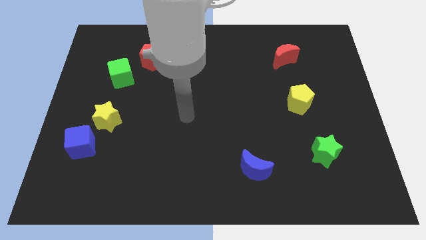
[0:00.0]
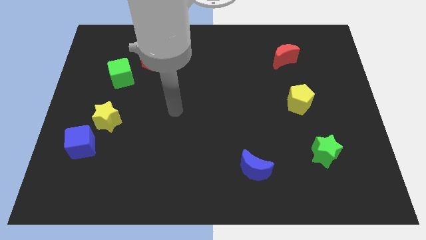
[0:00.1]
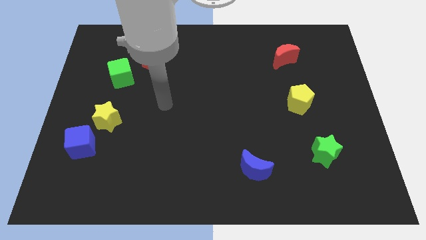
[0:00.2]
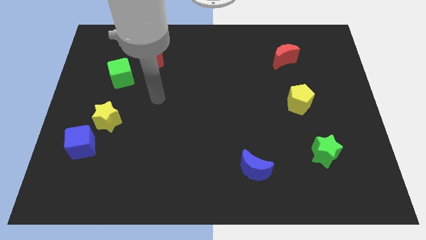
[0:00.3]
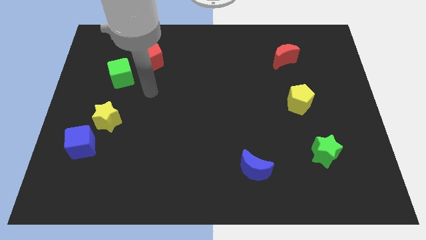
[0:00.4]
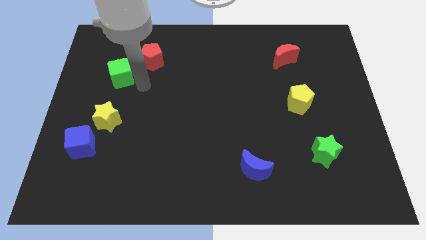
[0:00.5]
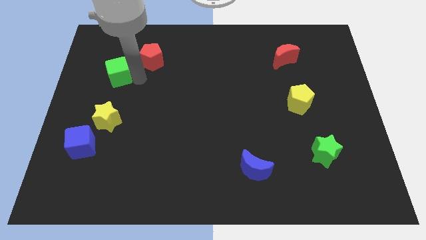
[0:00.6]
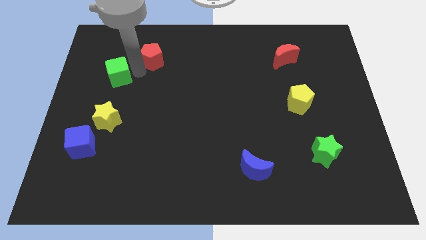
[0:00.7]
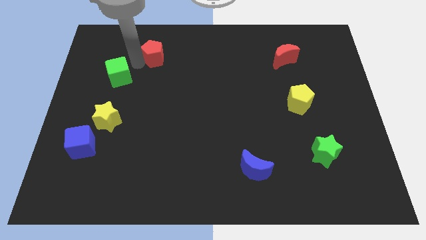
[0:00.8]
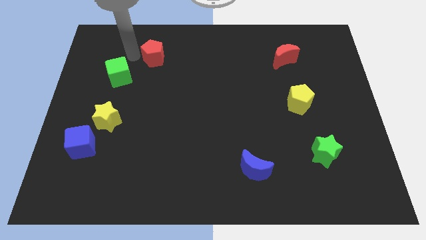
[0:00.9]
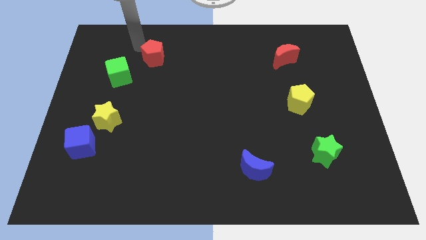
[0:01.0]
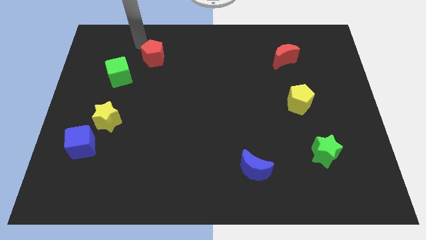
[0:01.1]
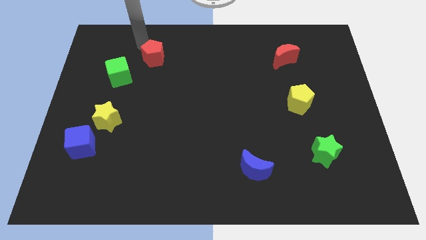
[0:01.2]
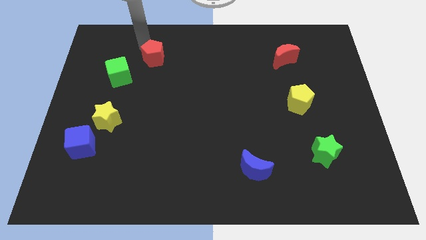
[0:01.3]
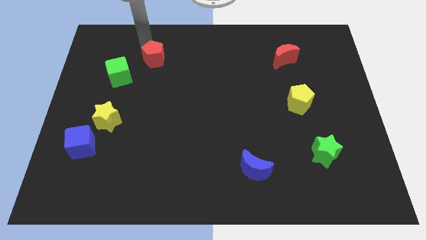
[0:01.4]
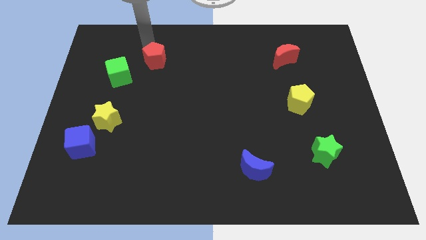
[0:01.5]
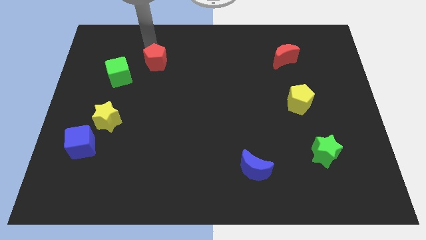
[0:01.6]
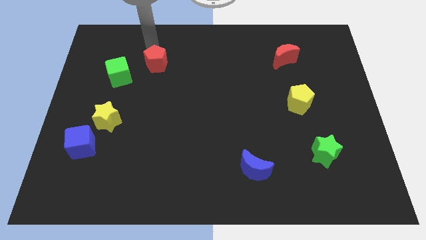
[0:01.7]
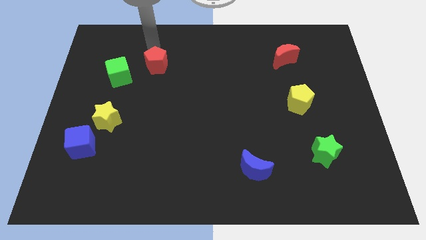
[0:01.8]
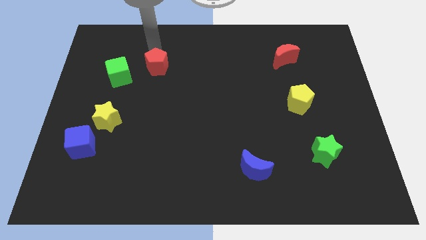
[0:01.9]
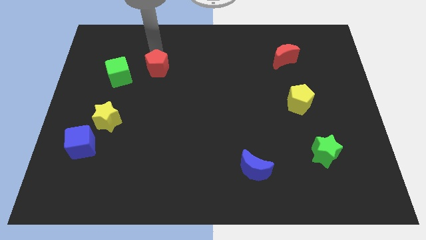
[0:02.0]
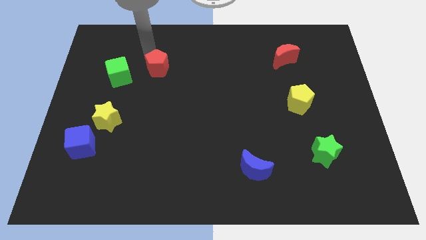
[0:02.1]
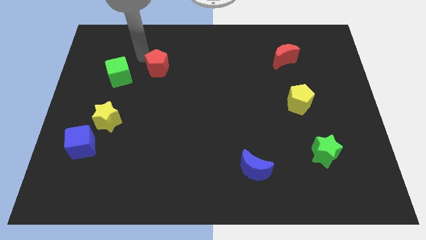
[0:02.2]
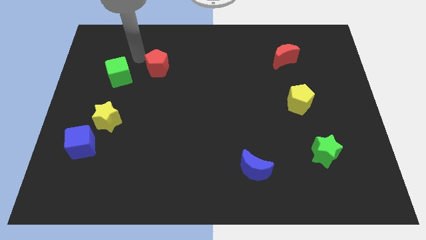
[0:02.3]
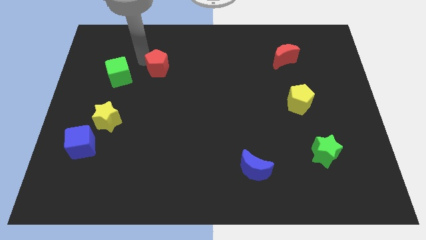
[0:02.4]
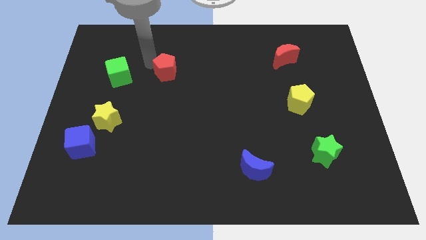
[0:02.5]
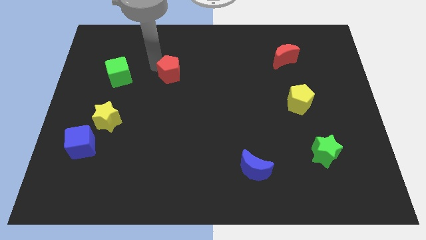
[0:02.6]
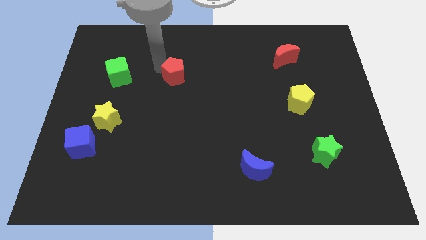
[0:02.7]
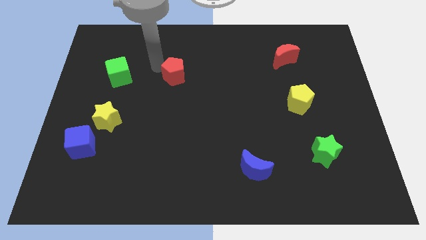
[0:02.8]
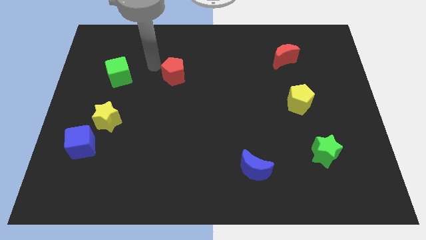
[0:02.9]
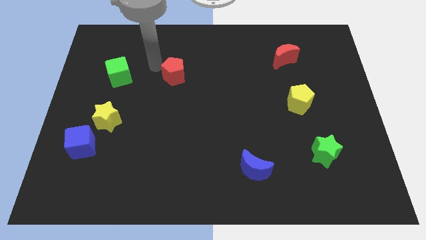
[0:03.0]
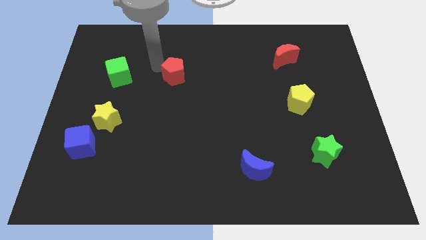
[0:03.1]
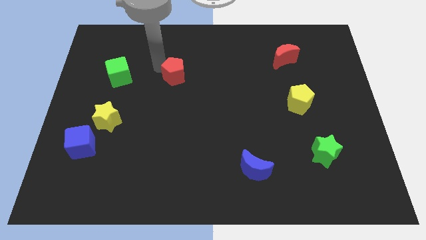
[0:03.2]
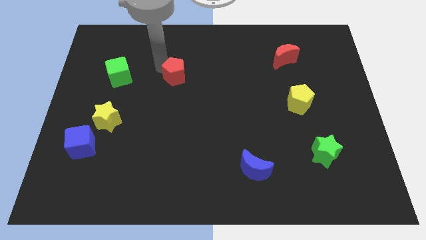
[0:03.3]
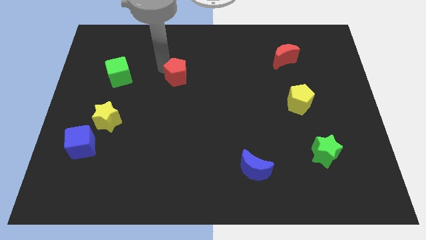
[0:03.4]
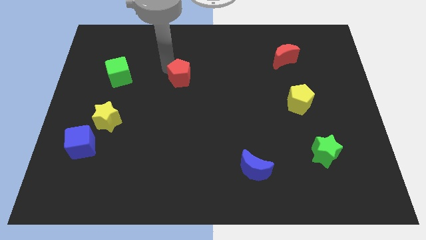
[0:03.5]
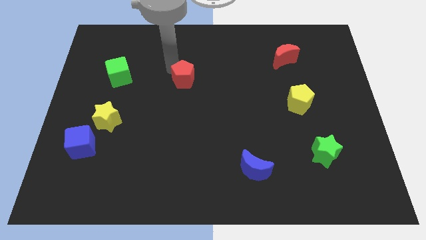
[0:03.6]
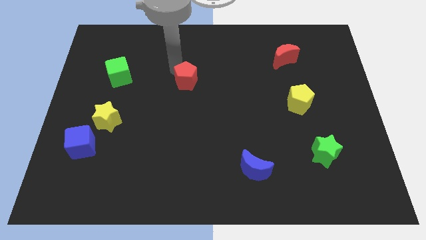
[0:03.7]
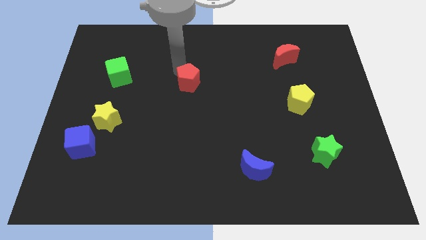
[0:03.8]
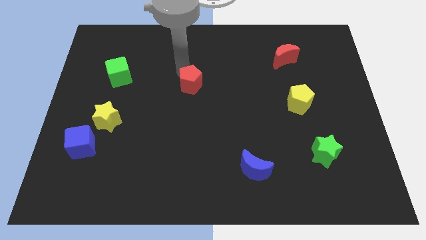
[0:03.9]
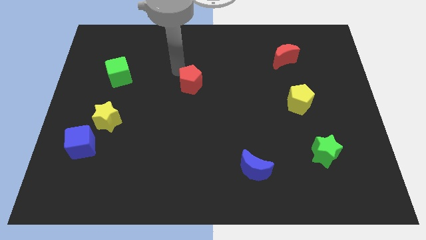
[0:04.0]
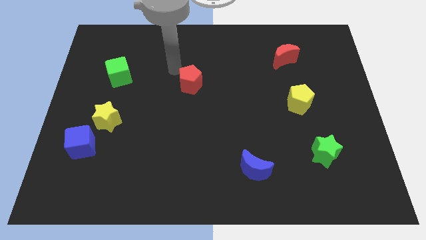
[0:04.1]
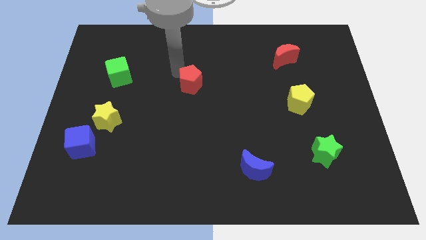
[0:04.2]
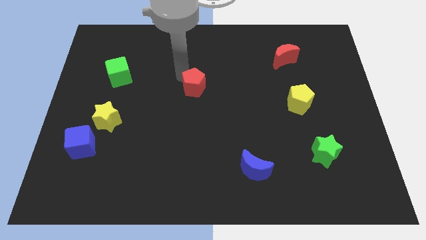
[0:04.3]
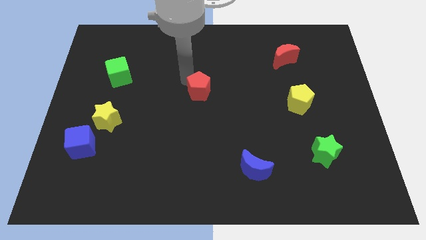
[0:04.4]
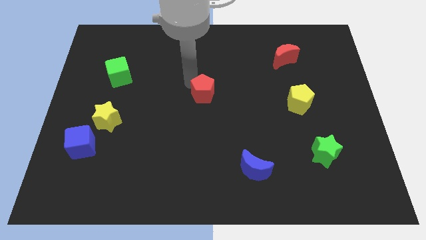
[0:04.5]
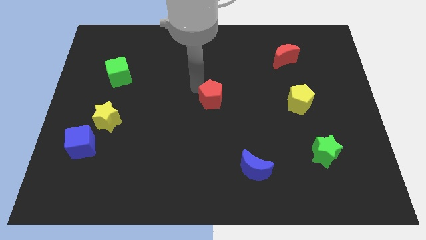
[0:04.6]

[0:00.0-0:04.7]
push the red pentagon downwards and right

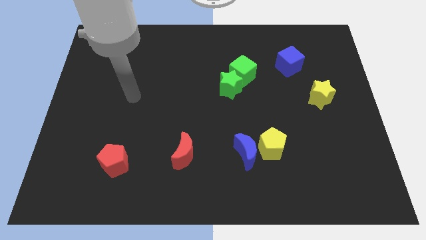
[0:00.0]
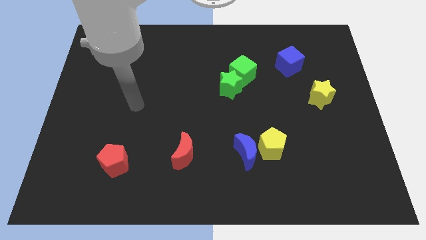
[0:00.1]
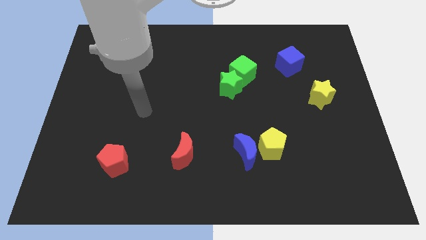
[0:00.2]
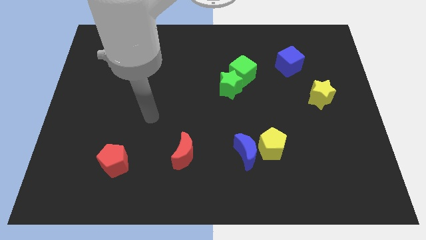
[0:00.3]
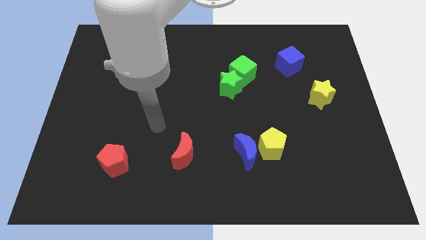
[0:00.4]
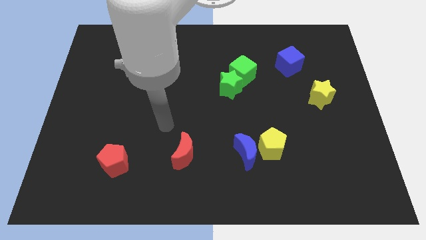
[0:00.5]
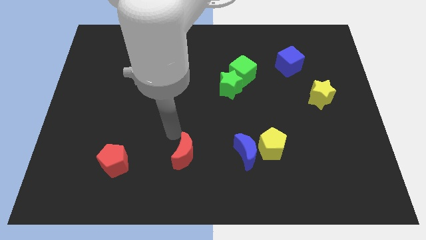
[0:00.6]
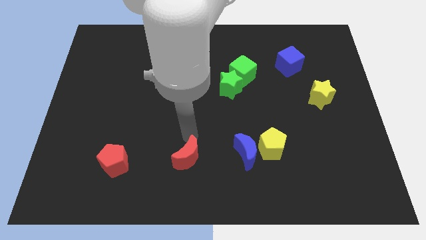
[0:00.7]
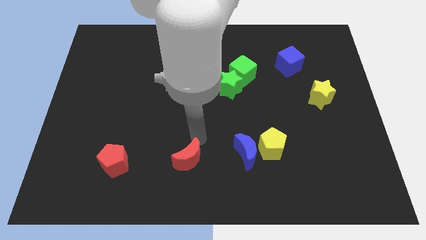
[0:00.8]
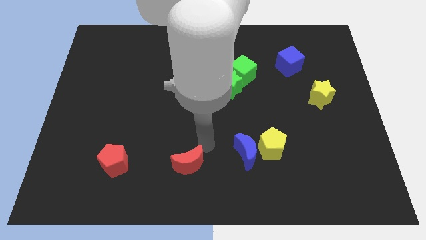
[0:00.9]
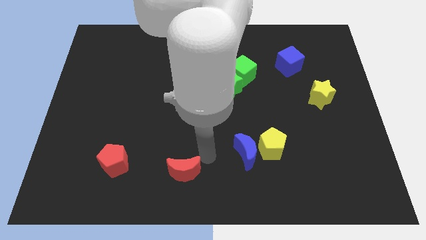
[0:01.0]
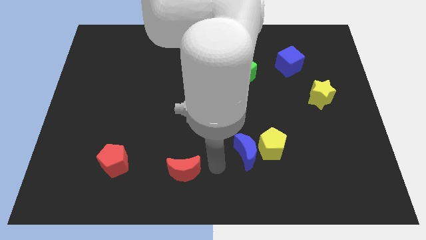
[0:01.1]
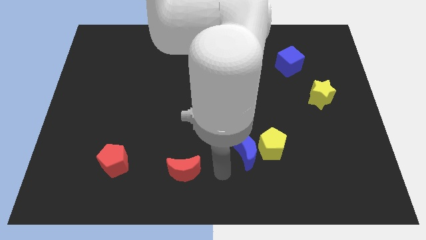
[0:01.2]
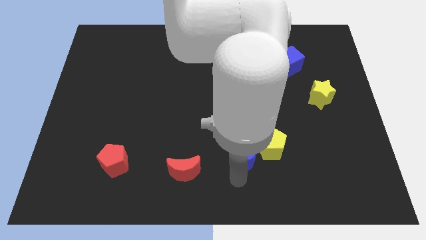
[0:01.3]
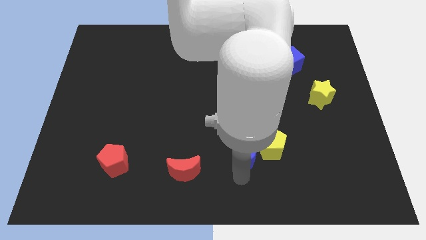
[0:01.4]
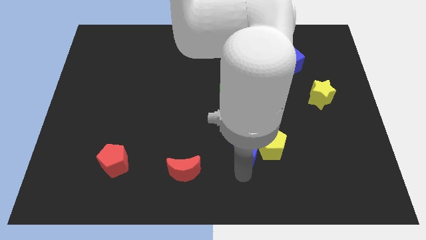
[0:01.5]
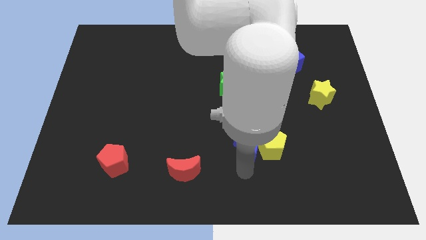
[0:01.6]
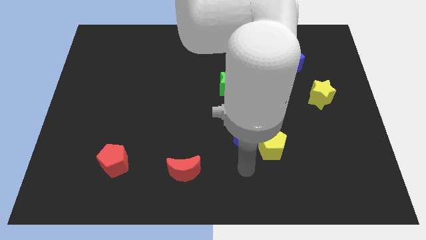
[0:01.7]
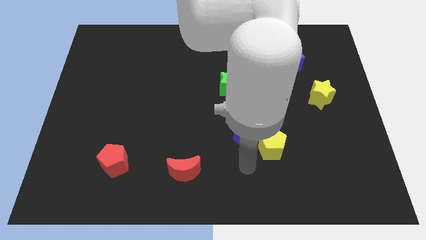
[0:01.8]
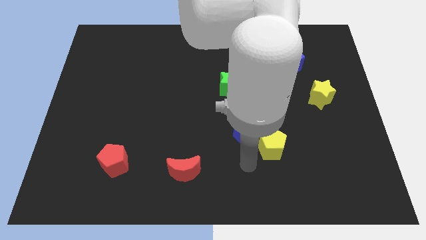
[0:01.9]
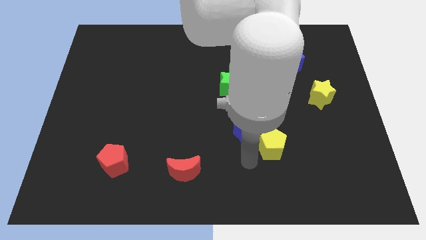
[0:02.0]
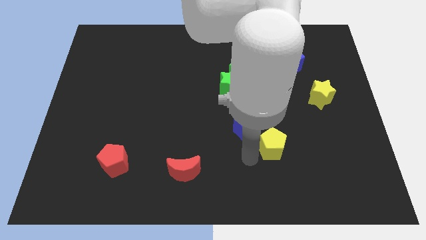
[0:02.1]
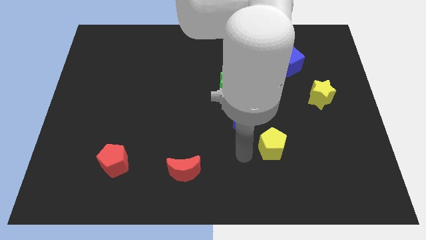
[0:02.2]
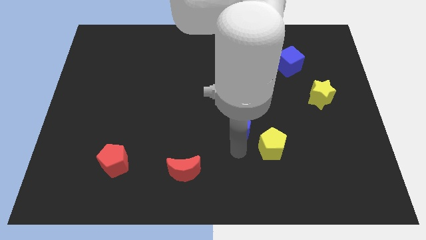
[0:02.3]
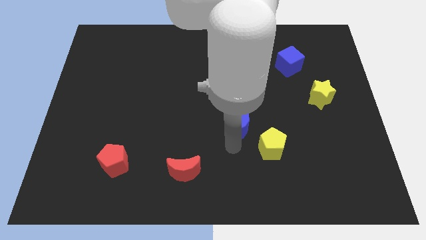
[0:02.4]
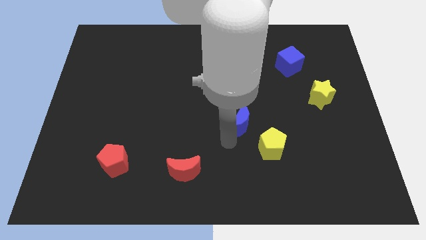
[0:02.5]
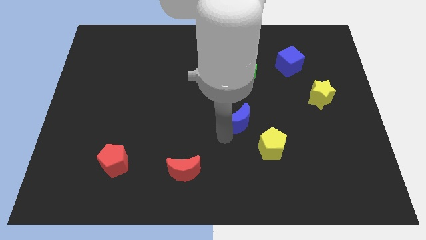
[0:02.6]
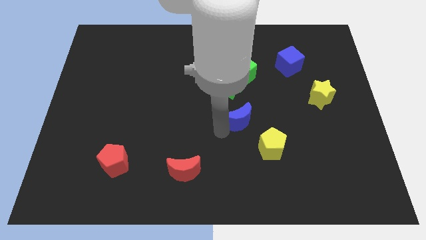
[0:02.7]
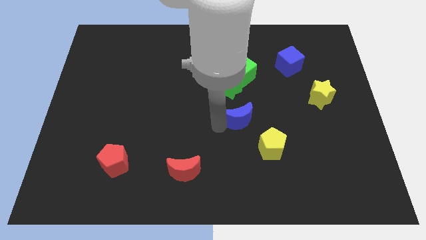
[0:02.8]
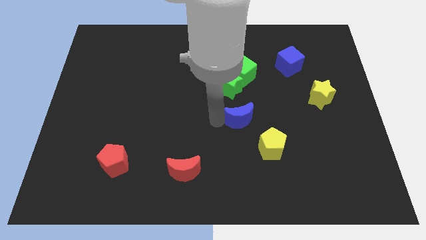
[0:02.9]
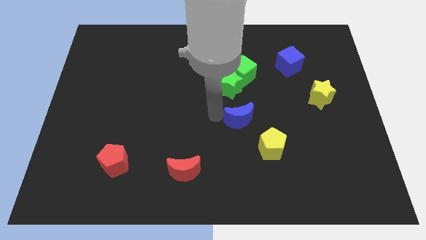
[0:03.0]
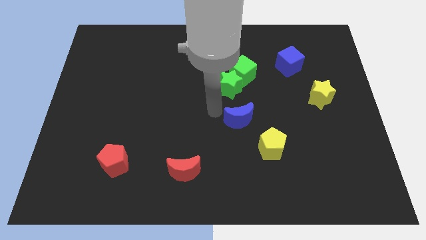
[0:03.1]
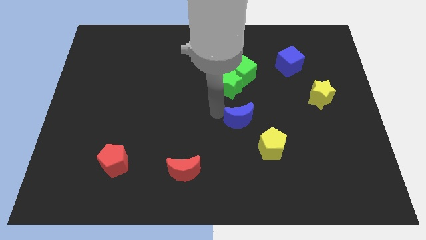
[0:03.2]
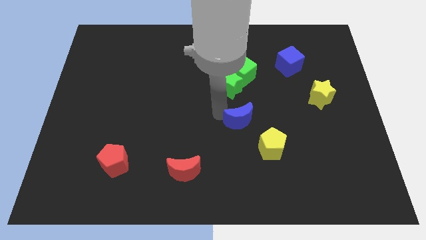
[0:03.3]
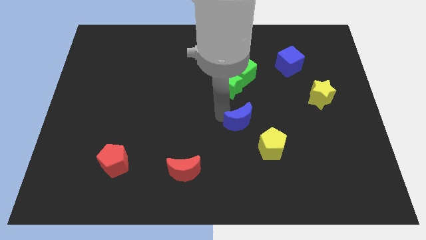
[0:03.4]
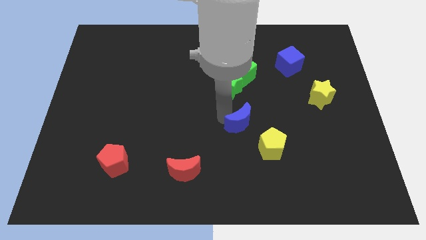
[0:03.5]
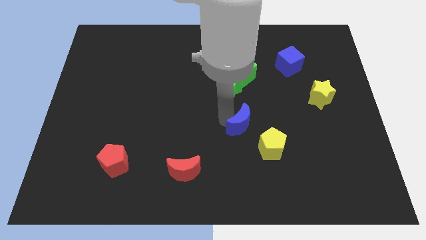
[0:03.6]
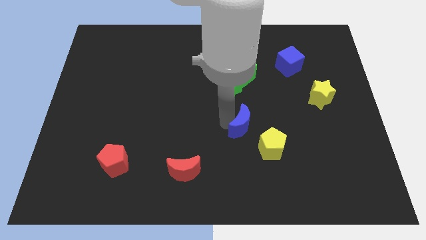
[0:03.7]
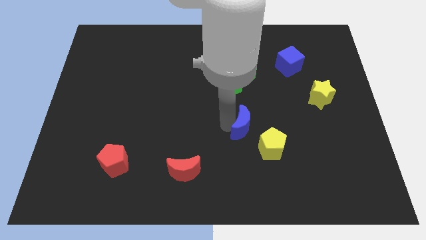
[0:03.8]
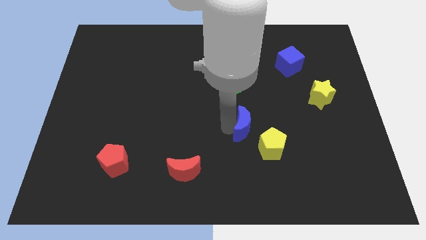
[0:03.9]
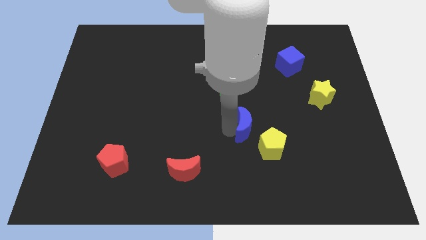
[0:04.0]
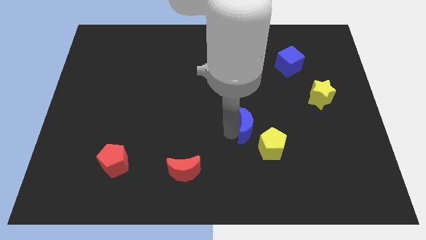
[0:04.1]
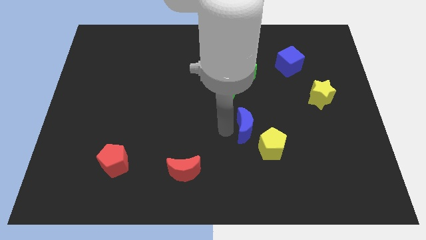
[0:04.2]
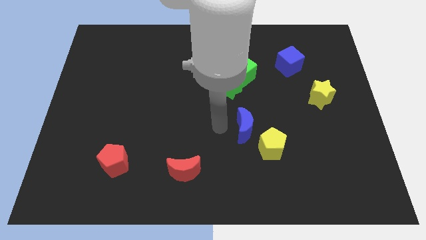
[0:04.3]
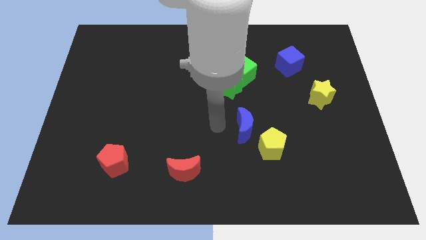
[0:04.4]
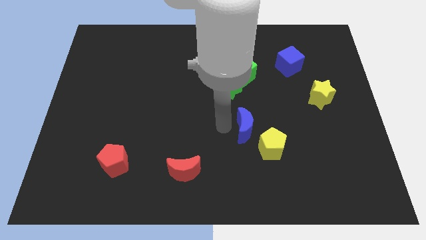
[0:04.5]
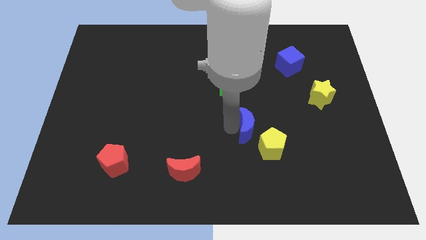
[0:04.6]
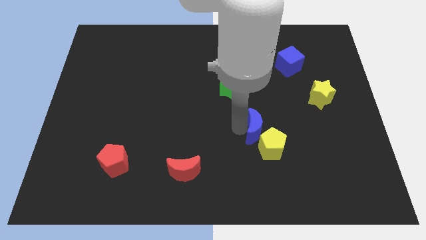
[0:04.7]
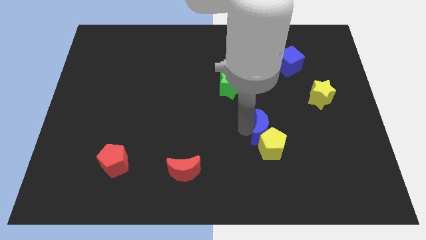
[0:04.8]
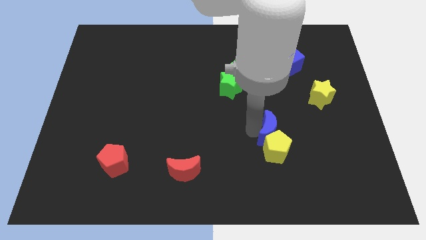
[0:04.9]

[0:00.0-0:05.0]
push the blue moon upwards and to the right diagonally somewhat
